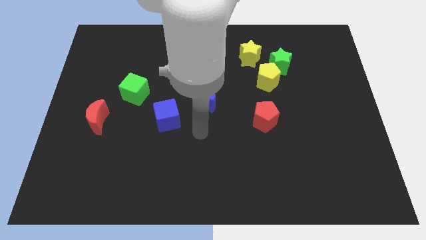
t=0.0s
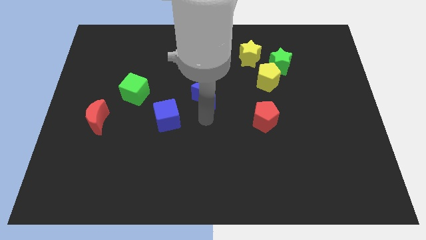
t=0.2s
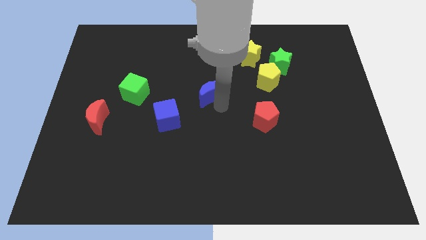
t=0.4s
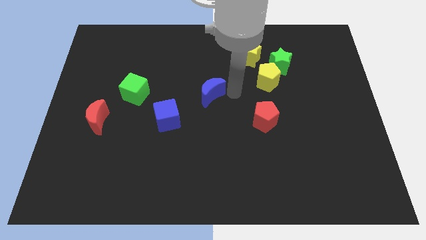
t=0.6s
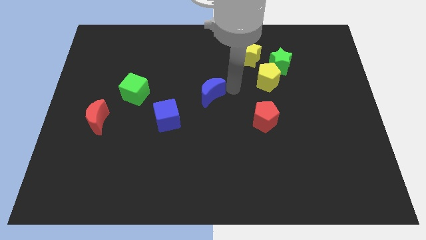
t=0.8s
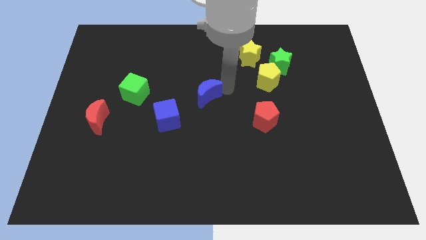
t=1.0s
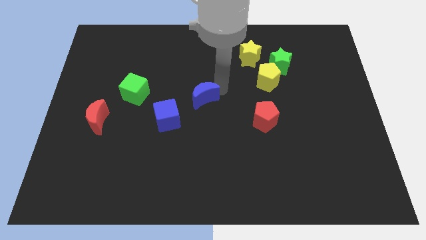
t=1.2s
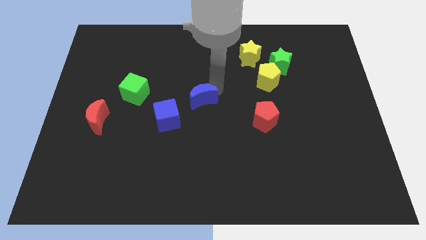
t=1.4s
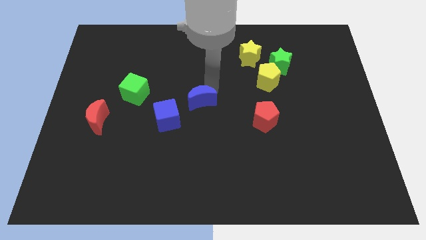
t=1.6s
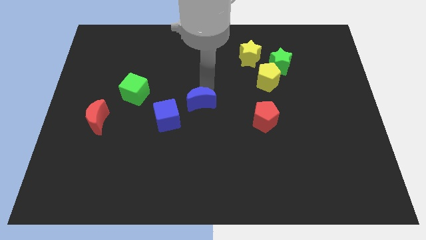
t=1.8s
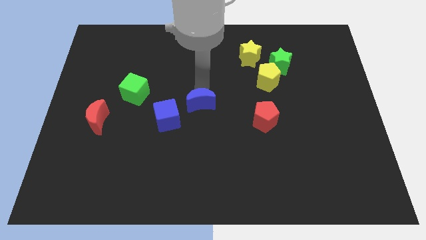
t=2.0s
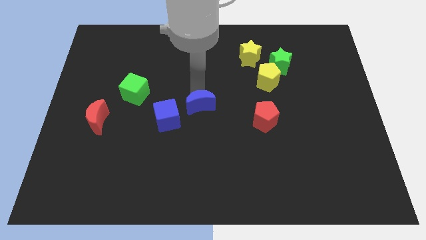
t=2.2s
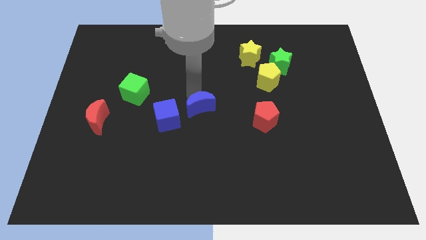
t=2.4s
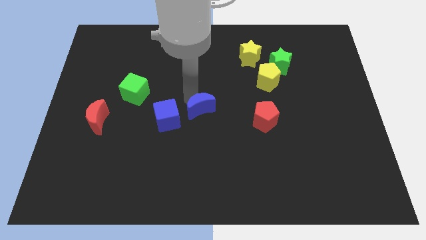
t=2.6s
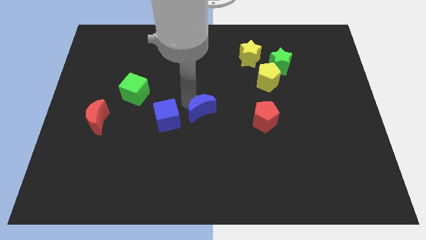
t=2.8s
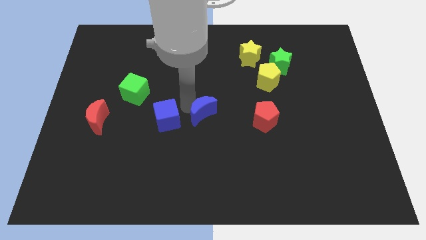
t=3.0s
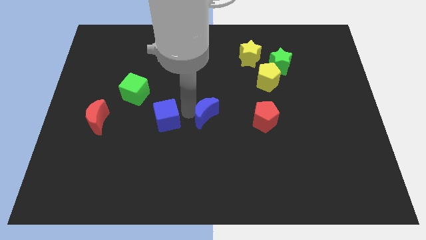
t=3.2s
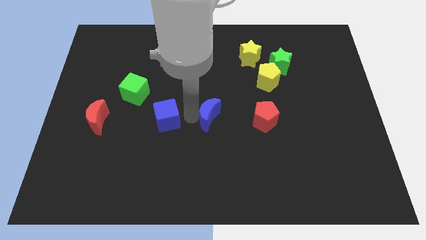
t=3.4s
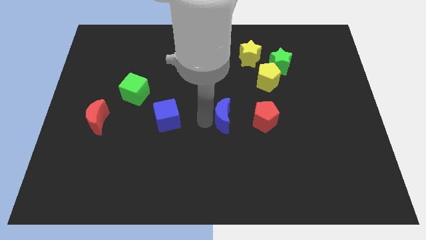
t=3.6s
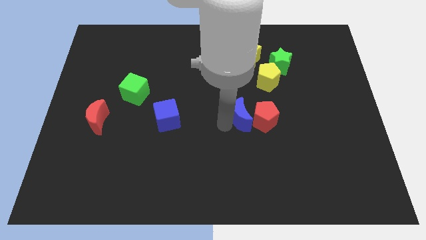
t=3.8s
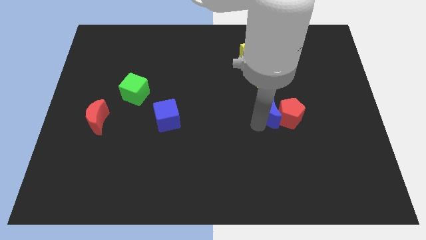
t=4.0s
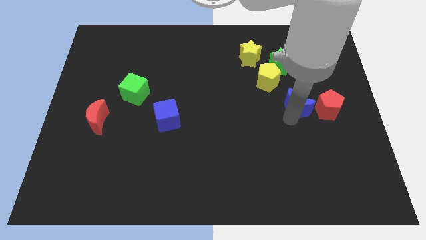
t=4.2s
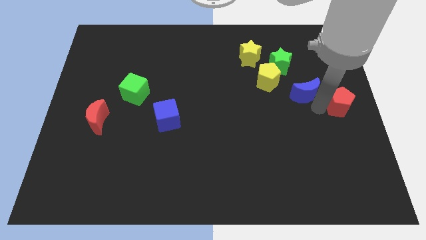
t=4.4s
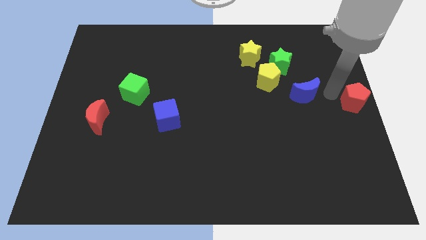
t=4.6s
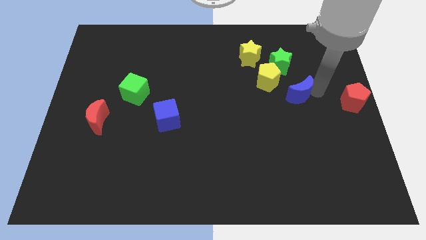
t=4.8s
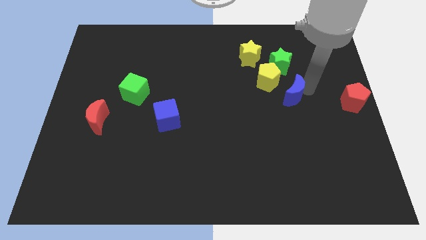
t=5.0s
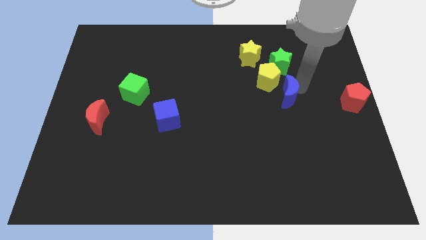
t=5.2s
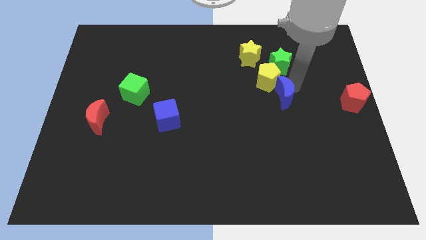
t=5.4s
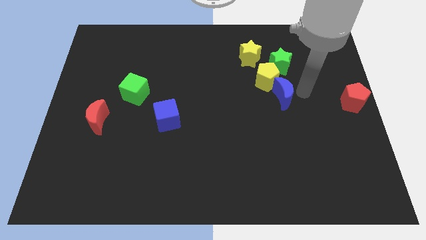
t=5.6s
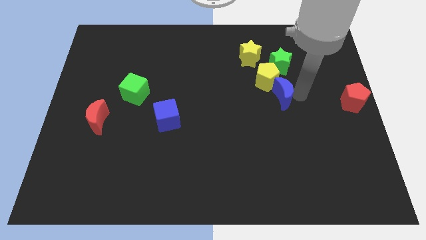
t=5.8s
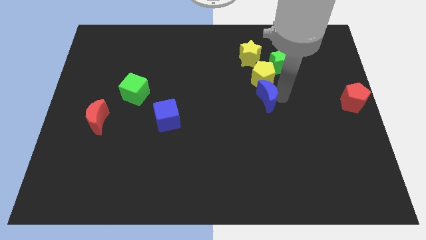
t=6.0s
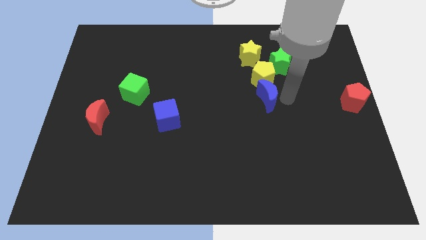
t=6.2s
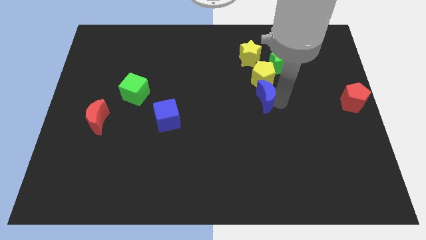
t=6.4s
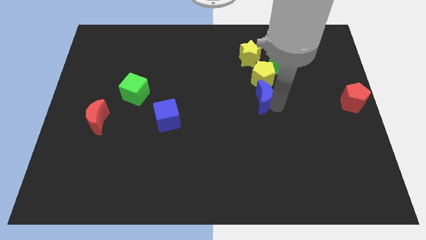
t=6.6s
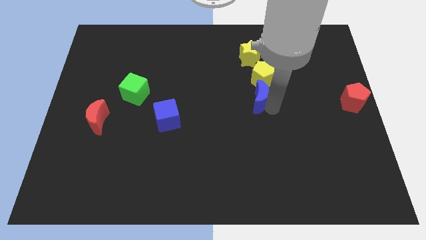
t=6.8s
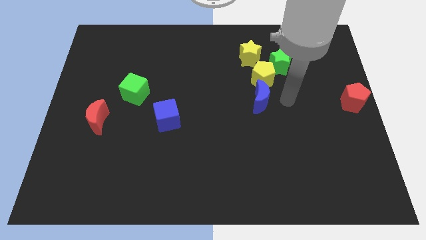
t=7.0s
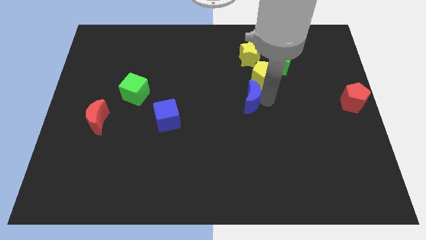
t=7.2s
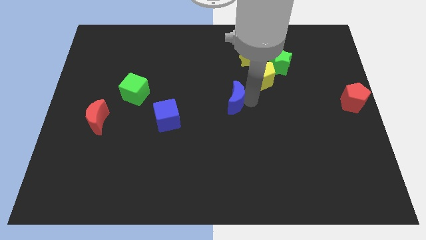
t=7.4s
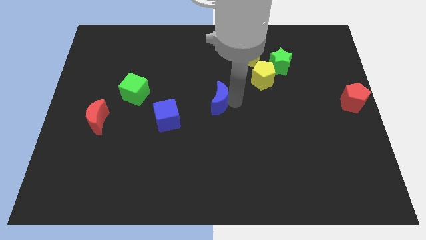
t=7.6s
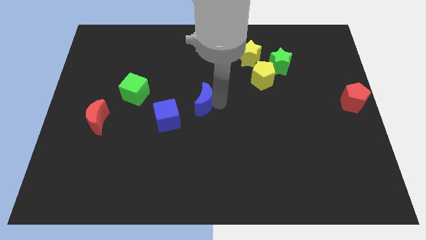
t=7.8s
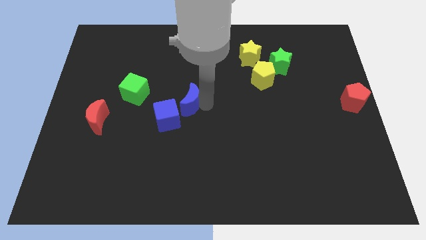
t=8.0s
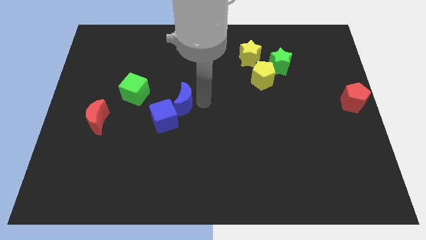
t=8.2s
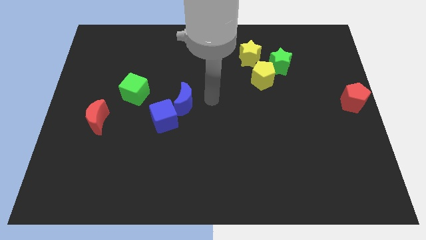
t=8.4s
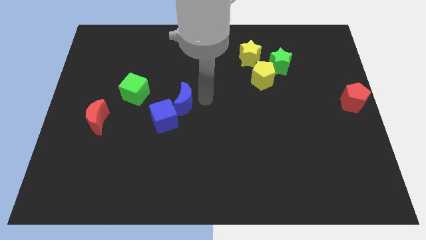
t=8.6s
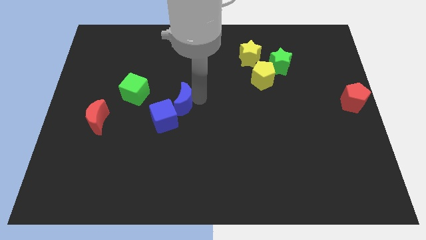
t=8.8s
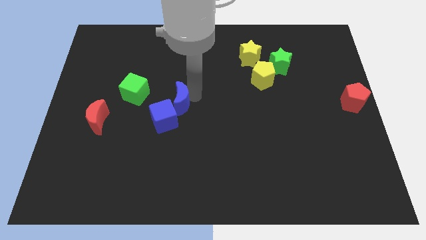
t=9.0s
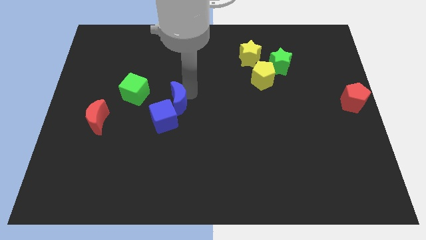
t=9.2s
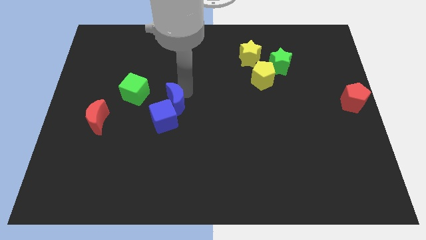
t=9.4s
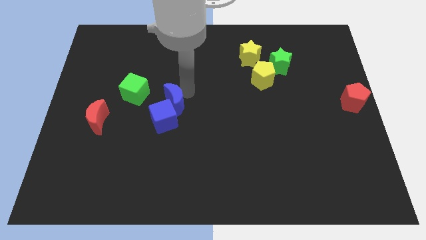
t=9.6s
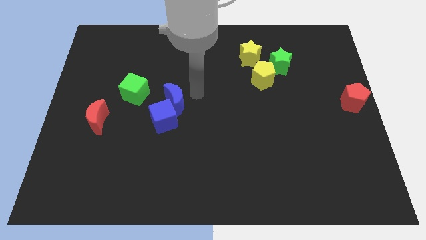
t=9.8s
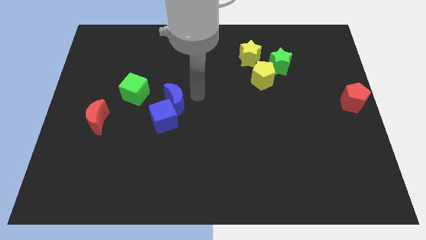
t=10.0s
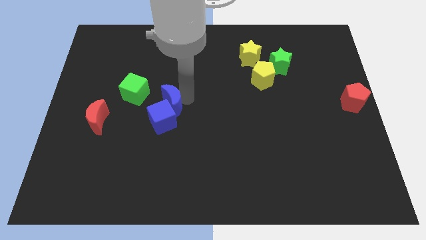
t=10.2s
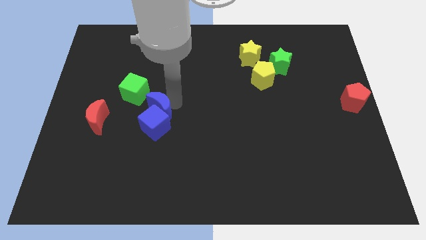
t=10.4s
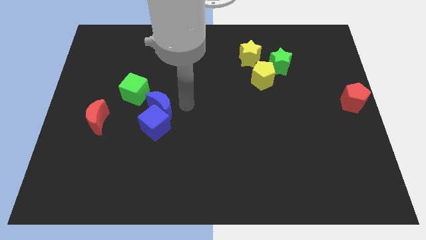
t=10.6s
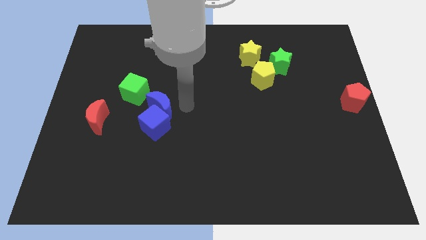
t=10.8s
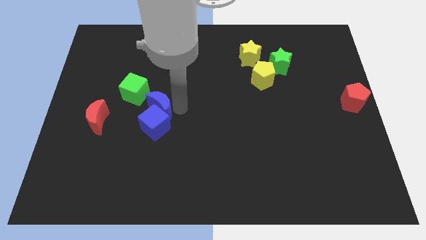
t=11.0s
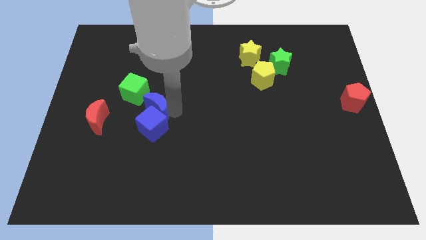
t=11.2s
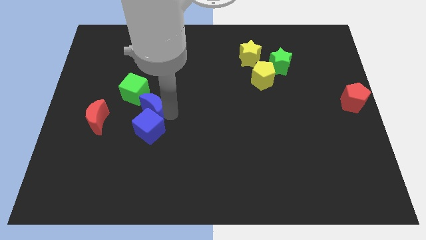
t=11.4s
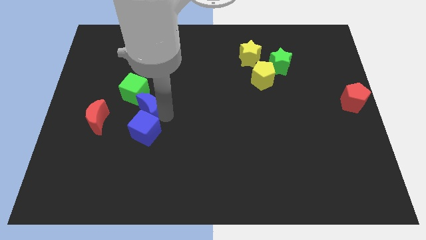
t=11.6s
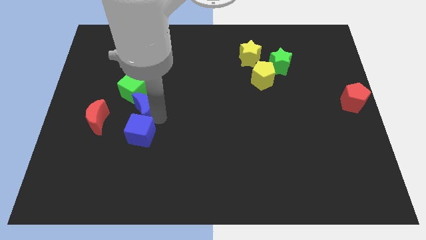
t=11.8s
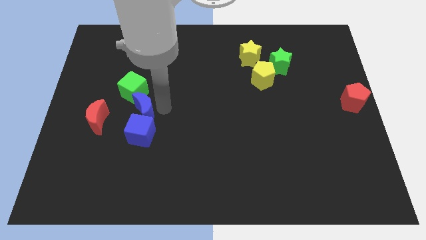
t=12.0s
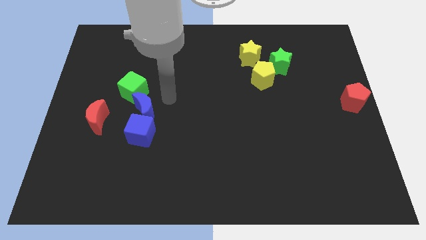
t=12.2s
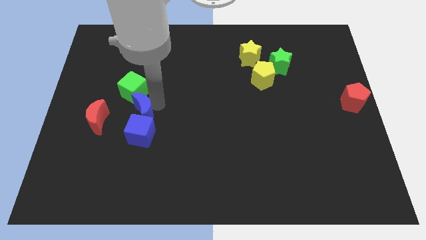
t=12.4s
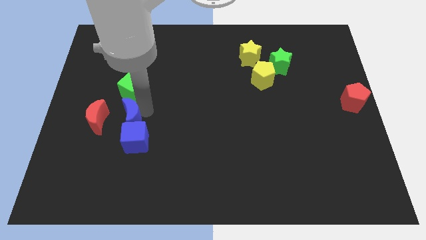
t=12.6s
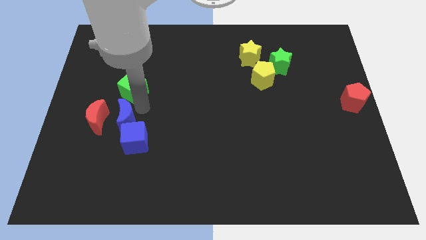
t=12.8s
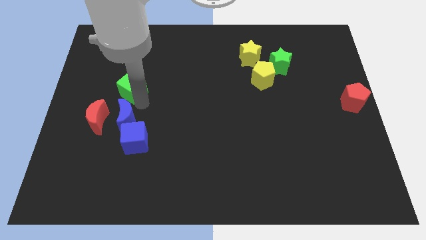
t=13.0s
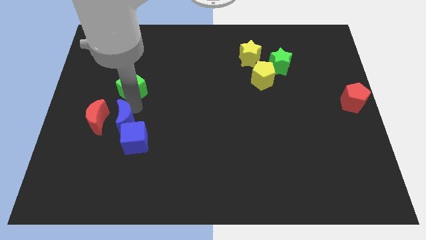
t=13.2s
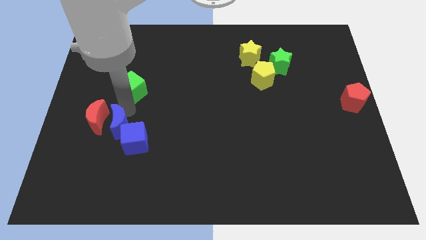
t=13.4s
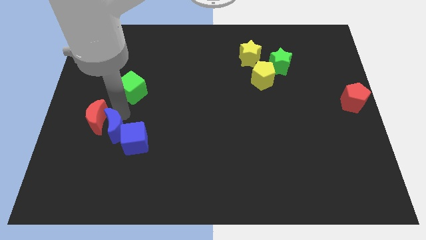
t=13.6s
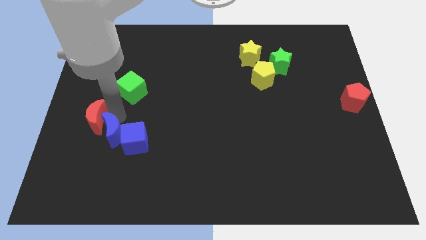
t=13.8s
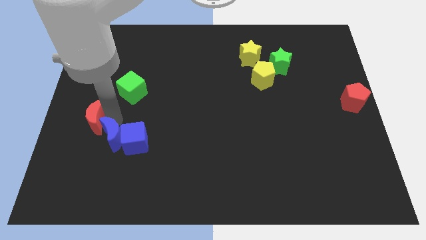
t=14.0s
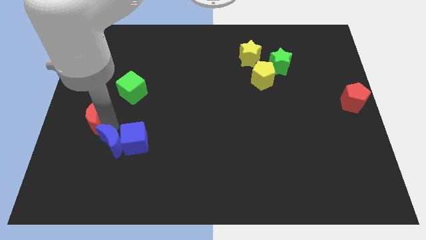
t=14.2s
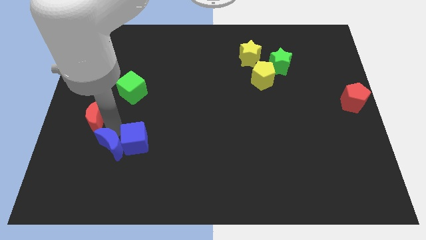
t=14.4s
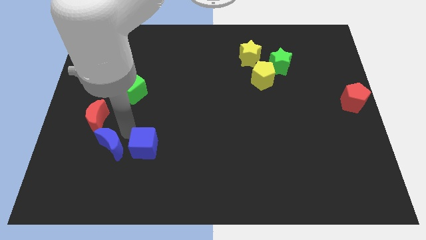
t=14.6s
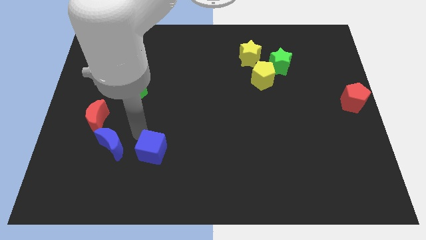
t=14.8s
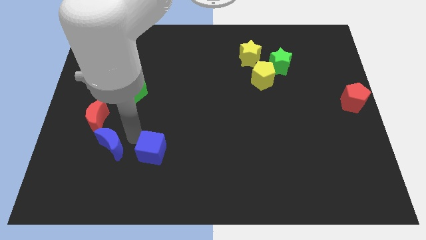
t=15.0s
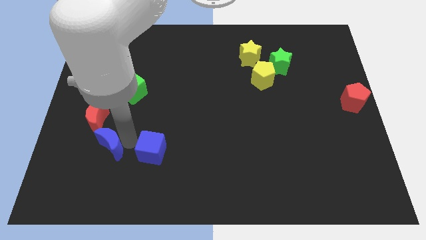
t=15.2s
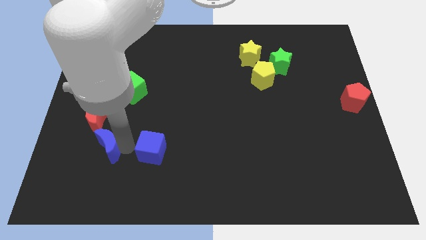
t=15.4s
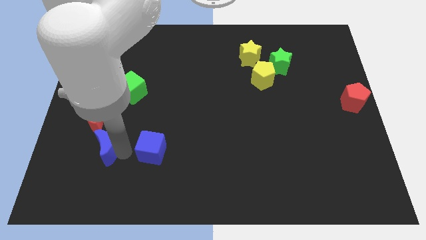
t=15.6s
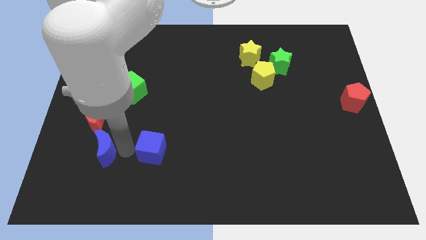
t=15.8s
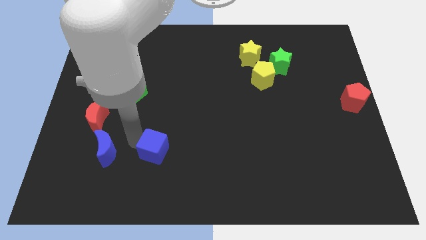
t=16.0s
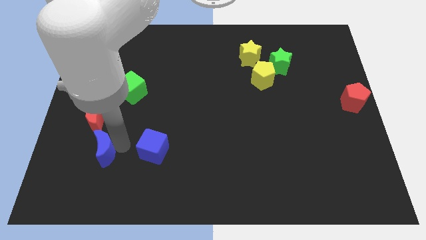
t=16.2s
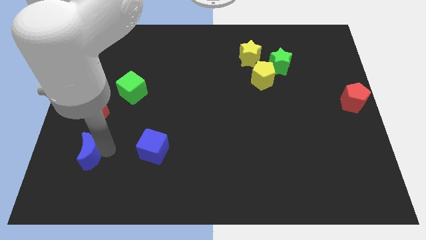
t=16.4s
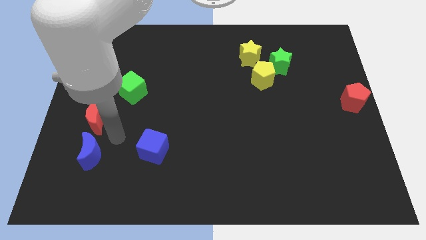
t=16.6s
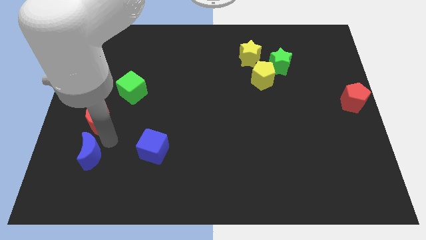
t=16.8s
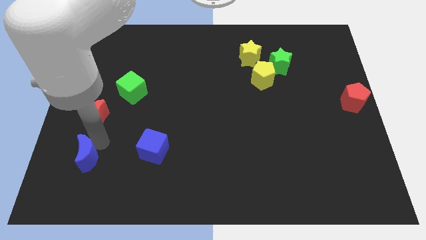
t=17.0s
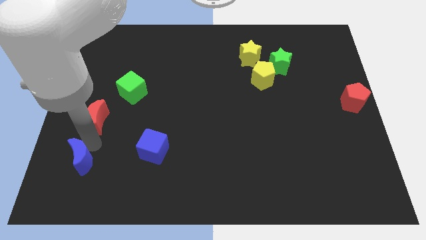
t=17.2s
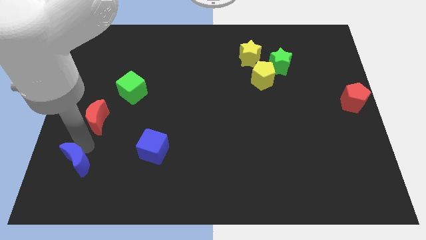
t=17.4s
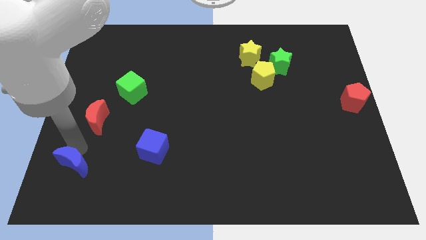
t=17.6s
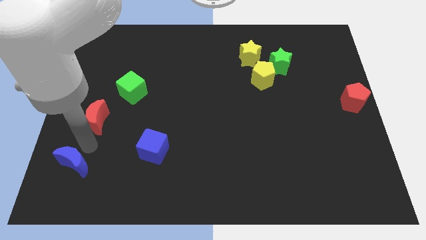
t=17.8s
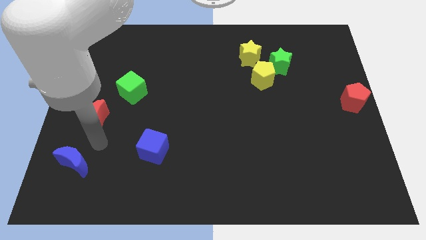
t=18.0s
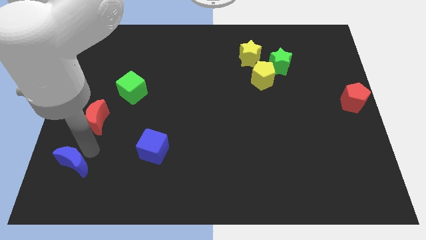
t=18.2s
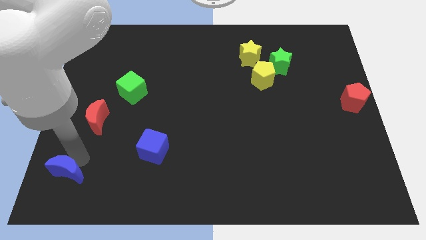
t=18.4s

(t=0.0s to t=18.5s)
put the blue moon to the lower left corner
